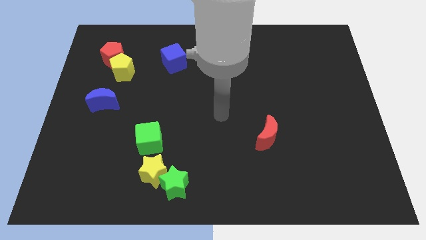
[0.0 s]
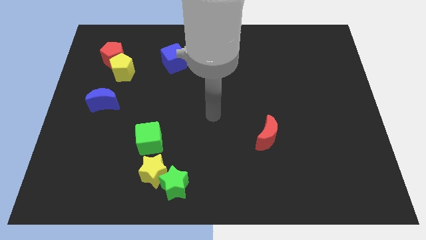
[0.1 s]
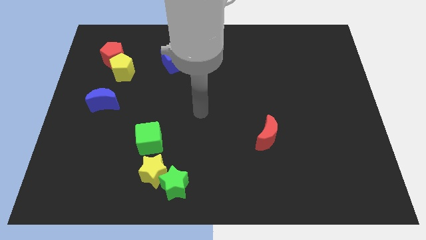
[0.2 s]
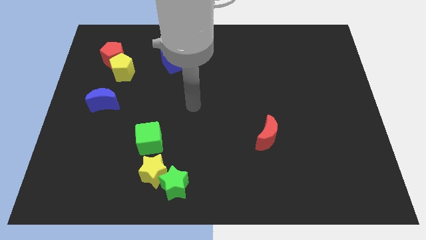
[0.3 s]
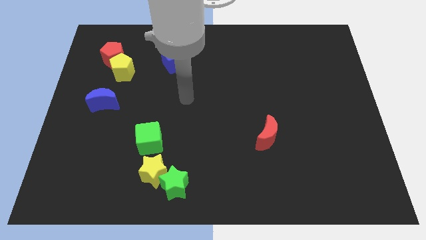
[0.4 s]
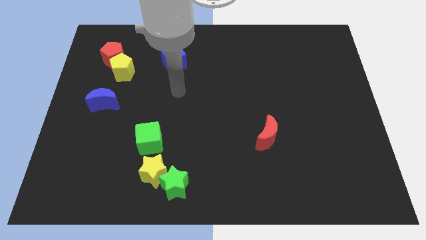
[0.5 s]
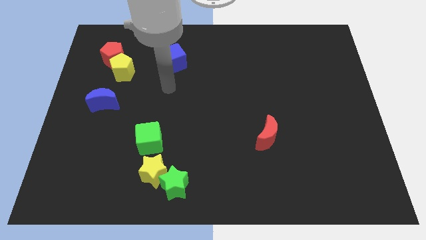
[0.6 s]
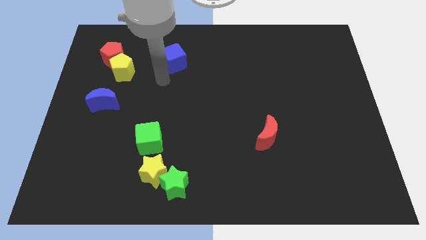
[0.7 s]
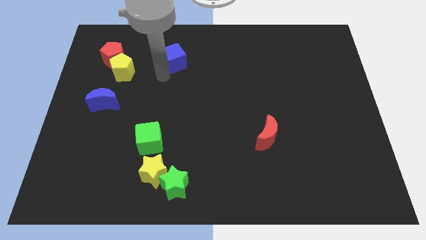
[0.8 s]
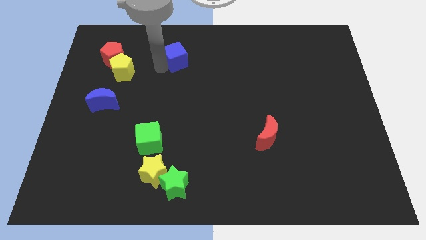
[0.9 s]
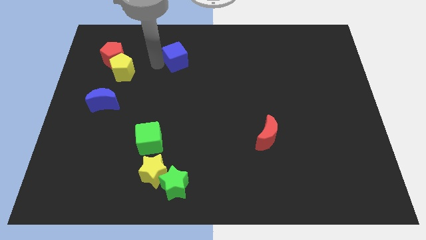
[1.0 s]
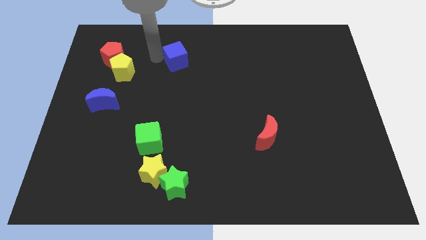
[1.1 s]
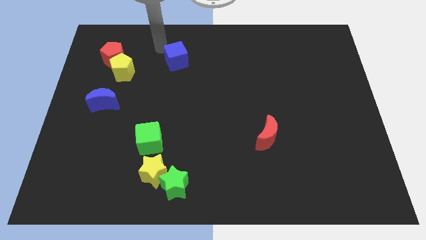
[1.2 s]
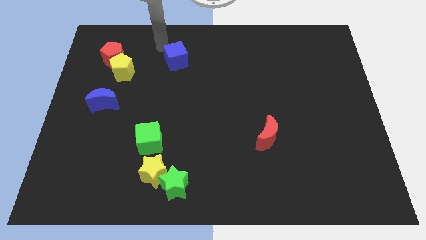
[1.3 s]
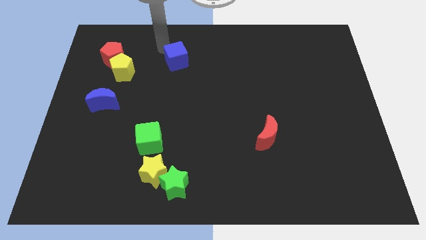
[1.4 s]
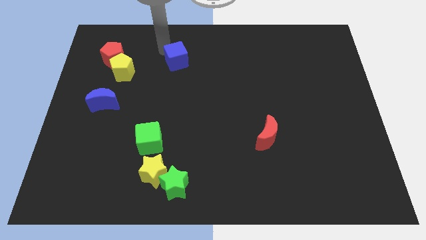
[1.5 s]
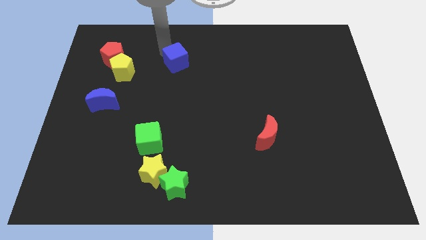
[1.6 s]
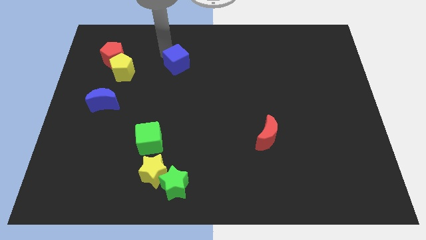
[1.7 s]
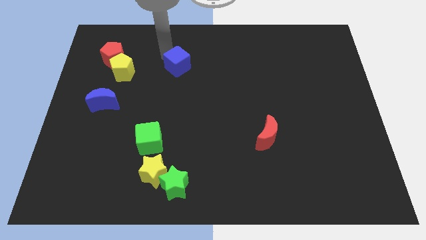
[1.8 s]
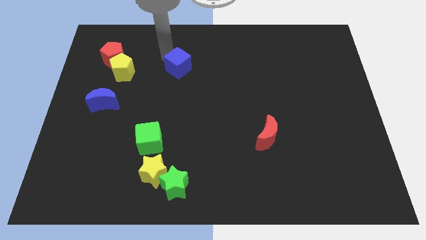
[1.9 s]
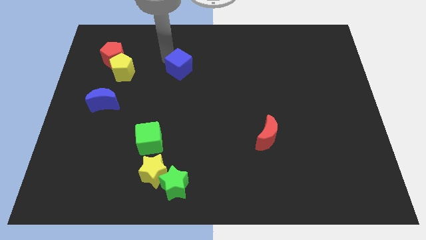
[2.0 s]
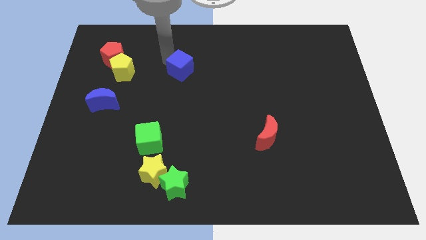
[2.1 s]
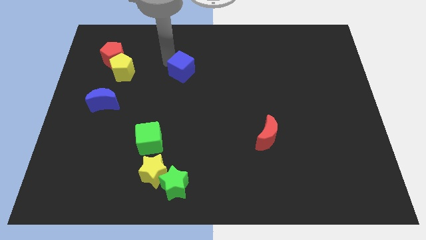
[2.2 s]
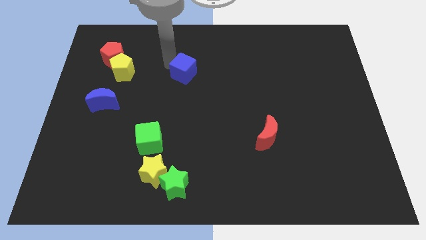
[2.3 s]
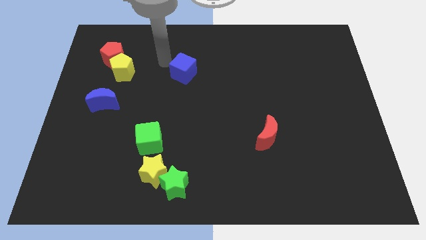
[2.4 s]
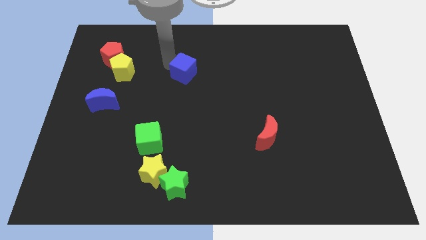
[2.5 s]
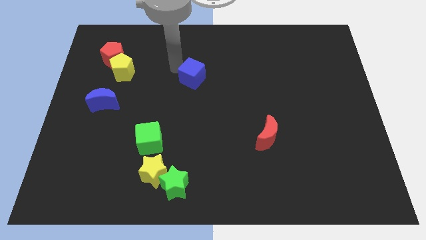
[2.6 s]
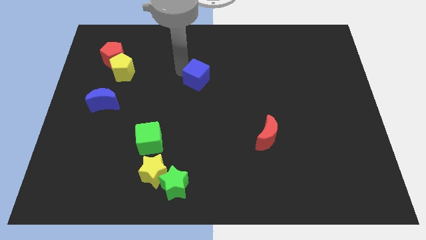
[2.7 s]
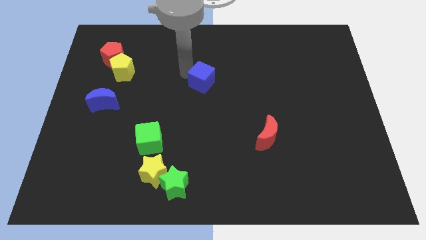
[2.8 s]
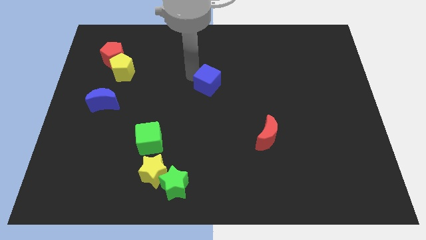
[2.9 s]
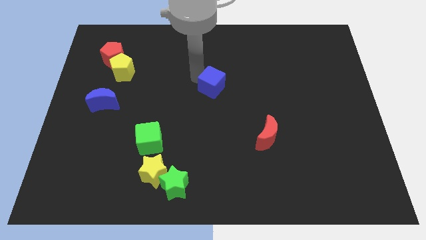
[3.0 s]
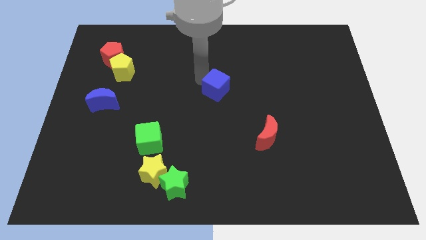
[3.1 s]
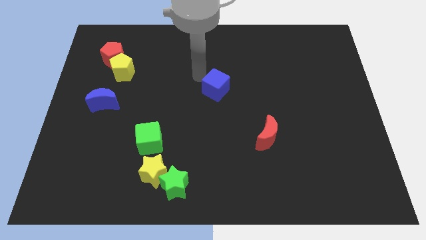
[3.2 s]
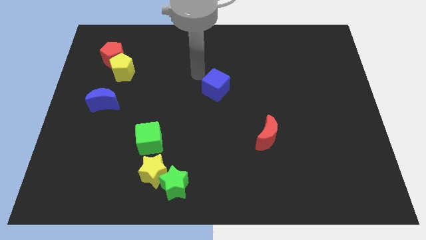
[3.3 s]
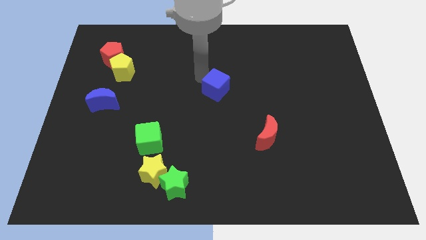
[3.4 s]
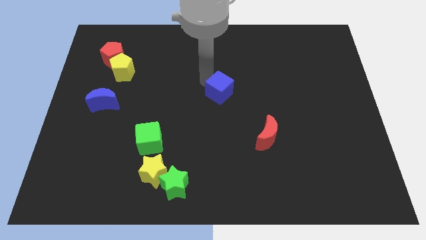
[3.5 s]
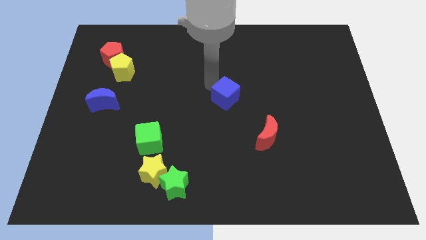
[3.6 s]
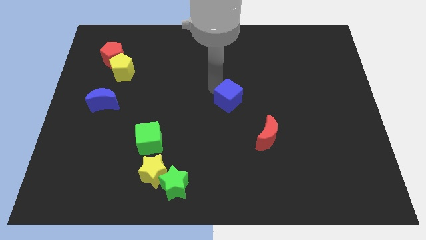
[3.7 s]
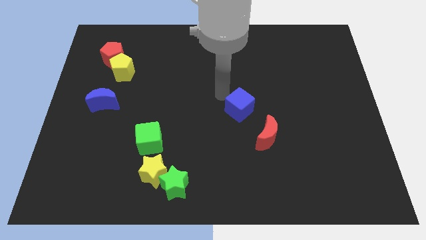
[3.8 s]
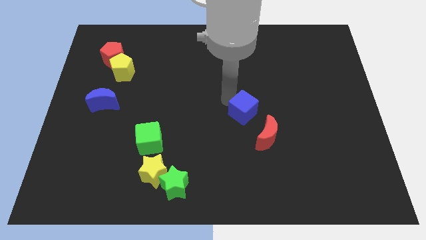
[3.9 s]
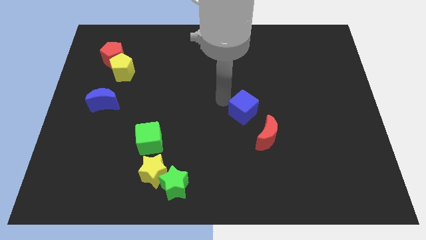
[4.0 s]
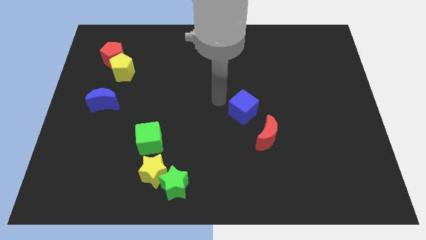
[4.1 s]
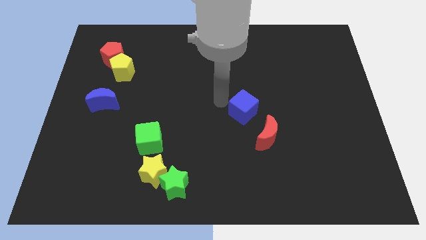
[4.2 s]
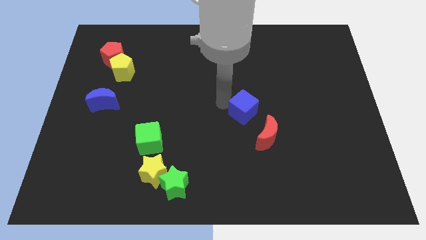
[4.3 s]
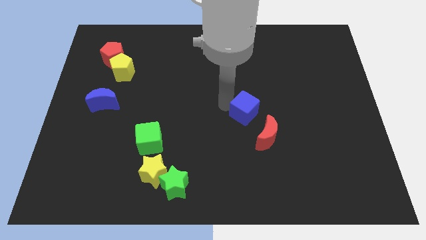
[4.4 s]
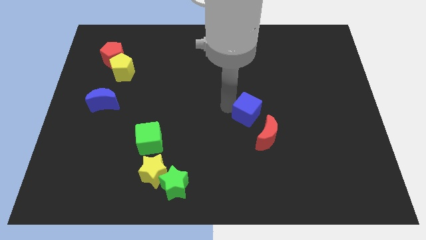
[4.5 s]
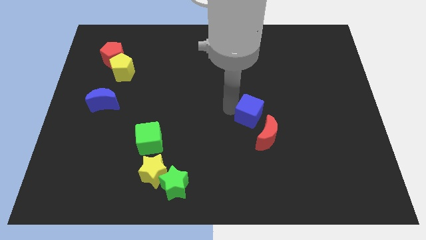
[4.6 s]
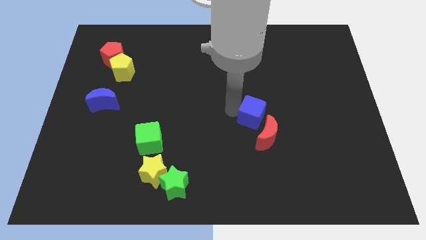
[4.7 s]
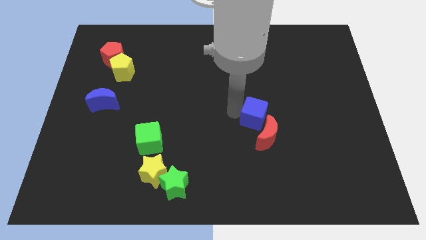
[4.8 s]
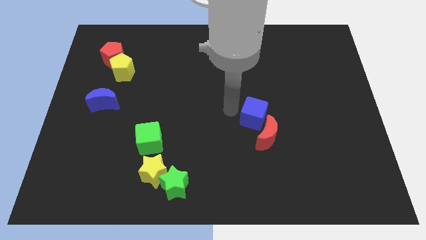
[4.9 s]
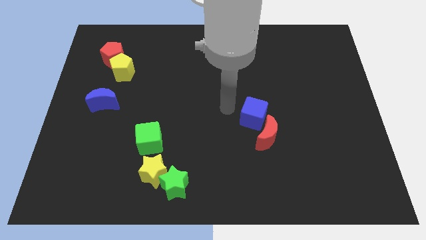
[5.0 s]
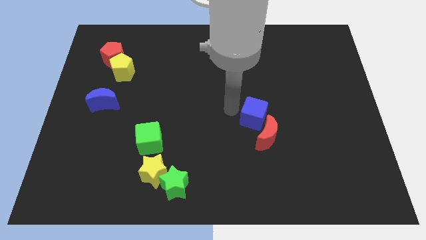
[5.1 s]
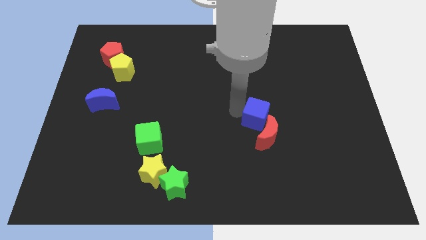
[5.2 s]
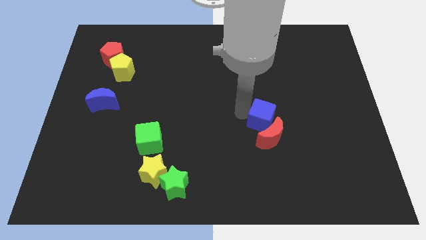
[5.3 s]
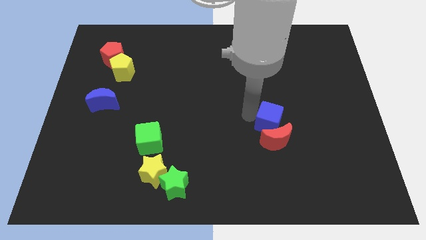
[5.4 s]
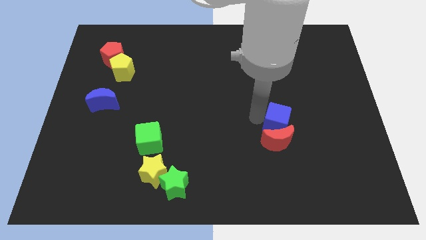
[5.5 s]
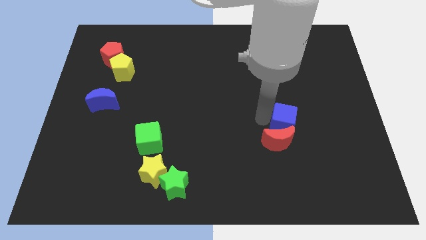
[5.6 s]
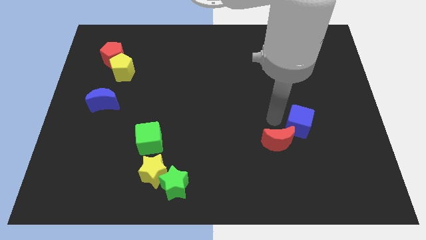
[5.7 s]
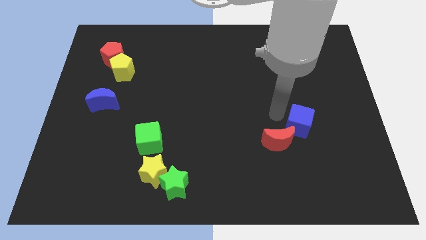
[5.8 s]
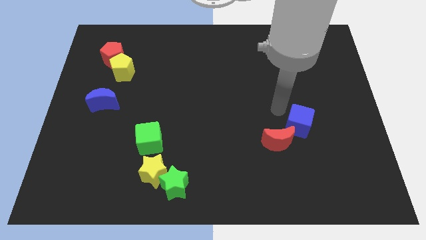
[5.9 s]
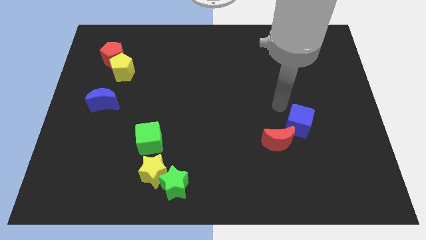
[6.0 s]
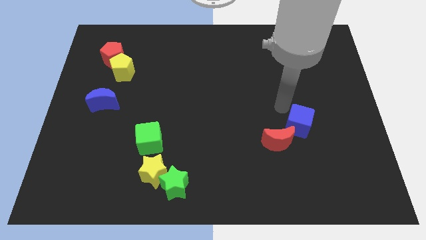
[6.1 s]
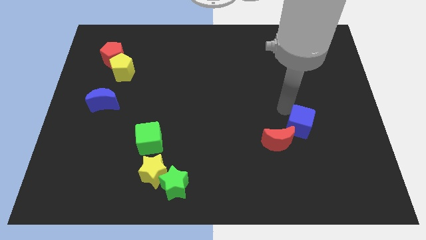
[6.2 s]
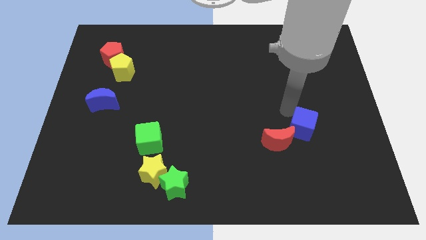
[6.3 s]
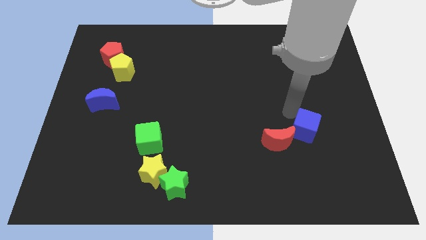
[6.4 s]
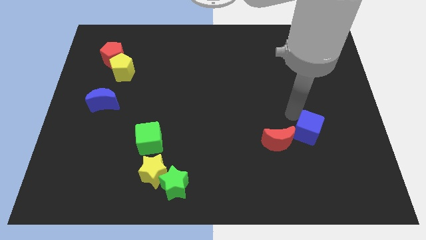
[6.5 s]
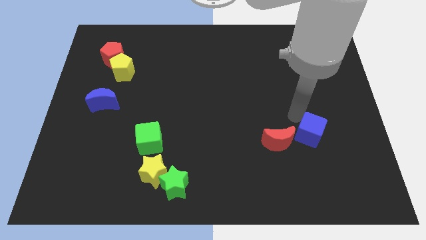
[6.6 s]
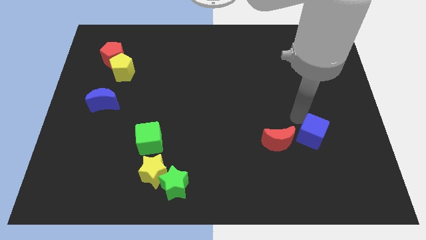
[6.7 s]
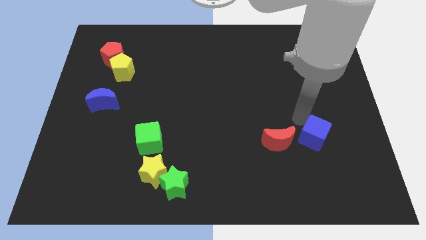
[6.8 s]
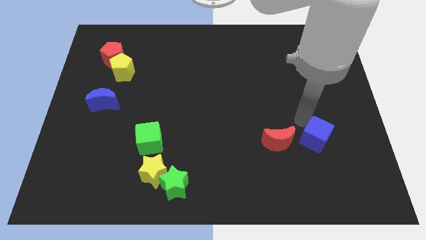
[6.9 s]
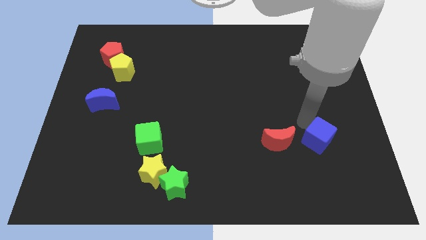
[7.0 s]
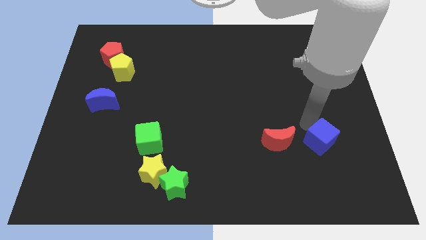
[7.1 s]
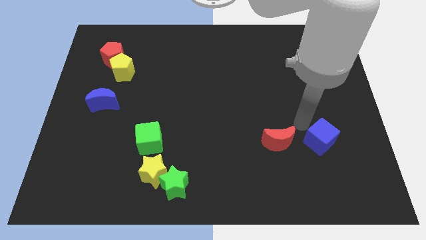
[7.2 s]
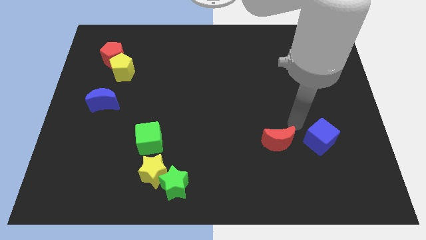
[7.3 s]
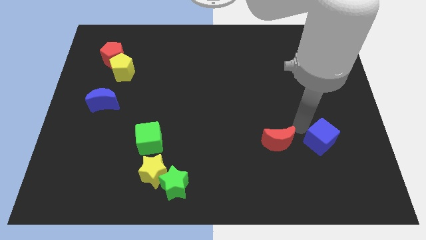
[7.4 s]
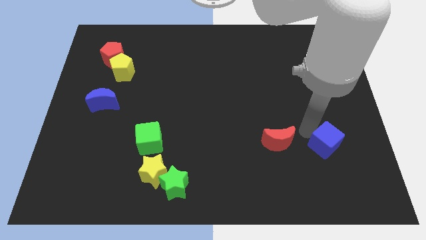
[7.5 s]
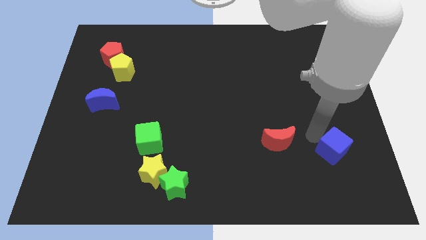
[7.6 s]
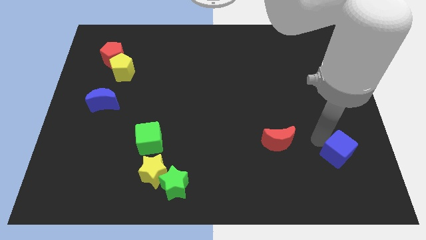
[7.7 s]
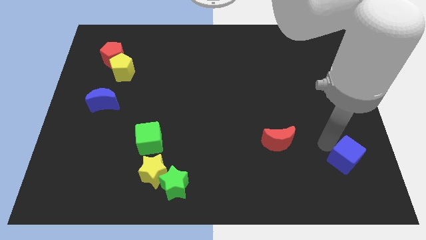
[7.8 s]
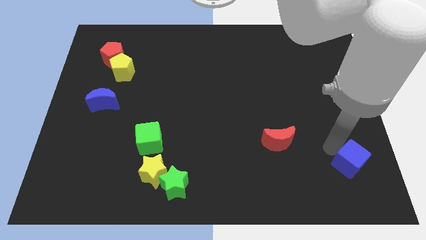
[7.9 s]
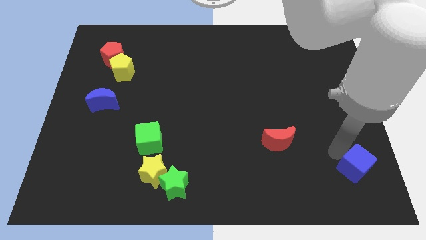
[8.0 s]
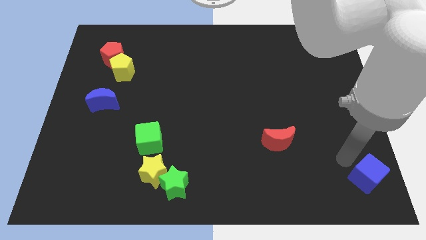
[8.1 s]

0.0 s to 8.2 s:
put the blue cube to the bottom right
